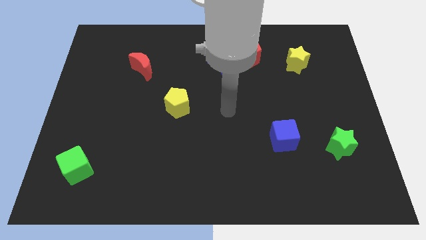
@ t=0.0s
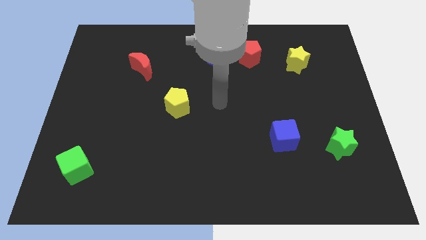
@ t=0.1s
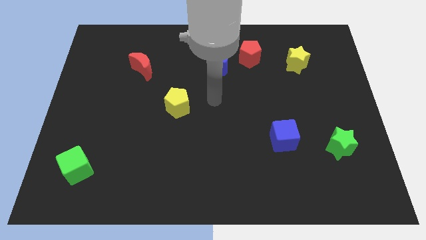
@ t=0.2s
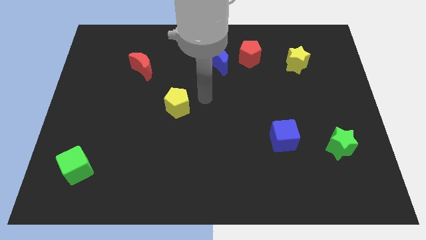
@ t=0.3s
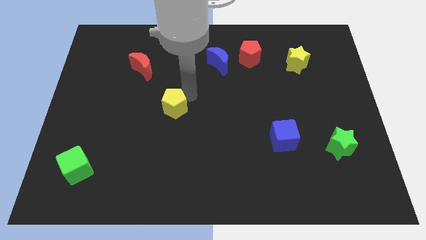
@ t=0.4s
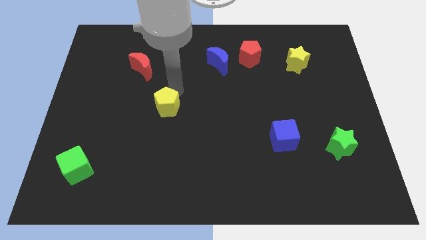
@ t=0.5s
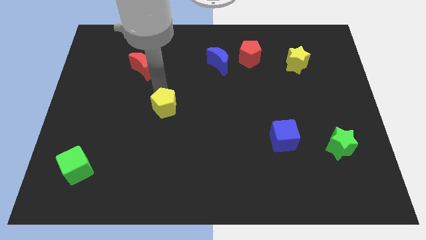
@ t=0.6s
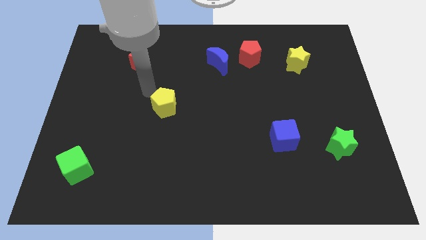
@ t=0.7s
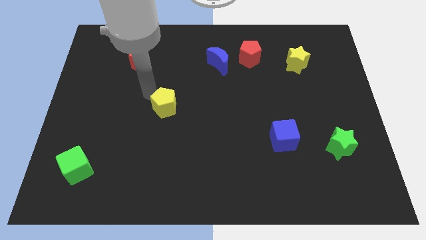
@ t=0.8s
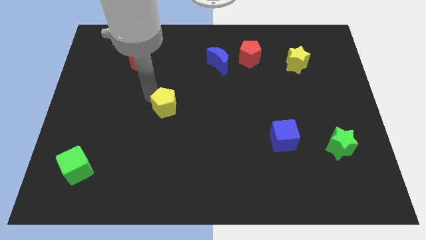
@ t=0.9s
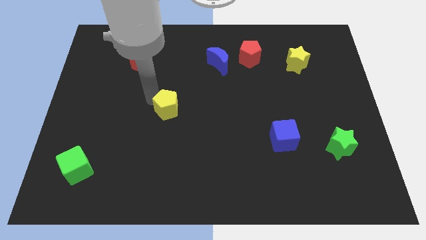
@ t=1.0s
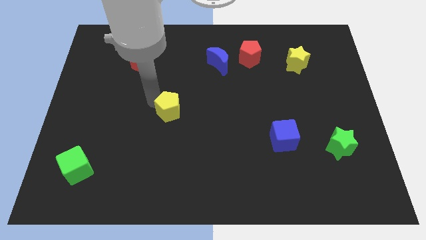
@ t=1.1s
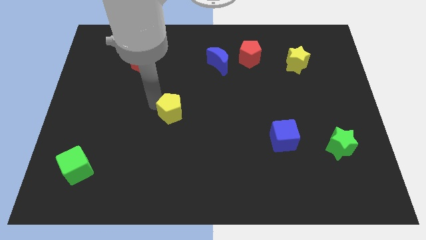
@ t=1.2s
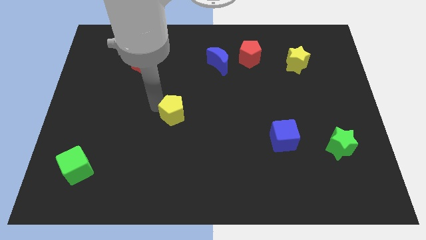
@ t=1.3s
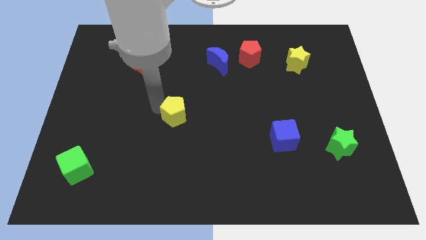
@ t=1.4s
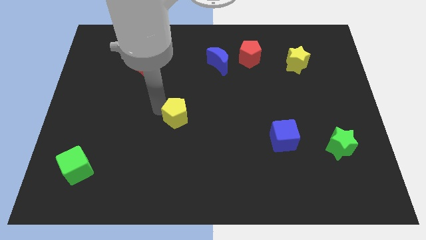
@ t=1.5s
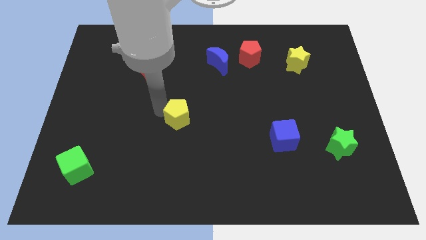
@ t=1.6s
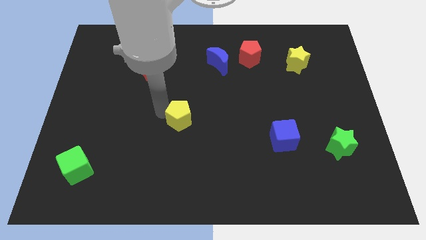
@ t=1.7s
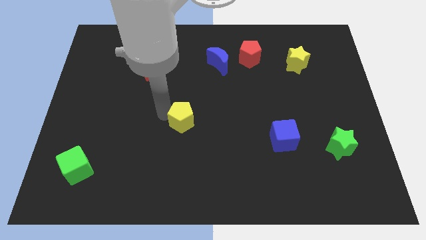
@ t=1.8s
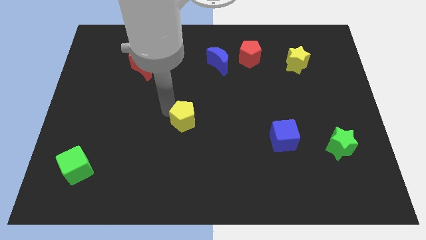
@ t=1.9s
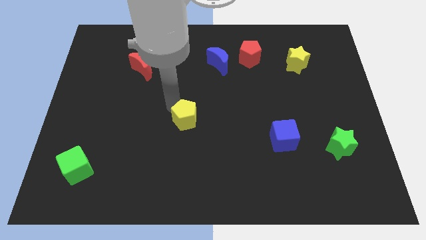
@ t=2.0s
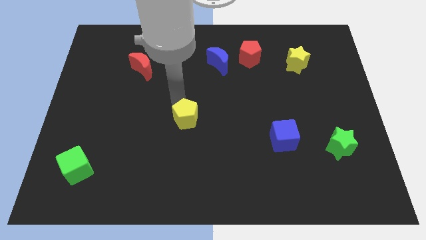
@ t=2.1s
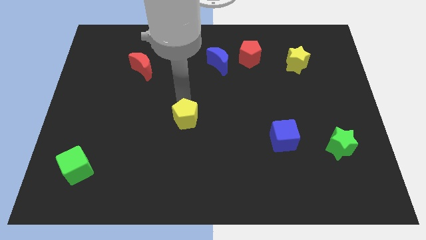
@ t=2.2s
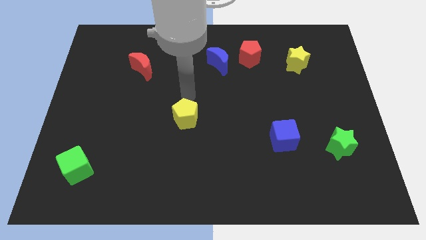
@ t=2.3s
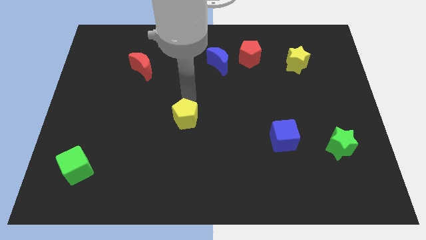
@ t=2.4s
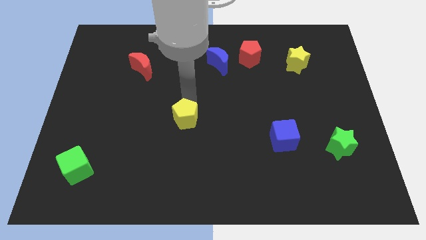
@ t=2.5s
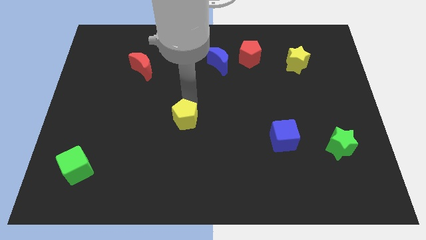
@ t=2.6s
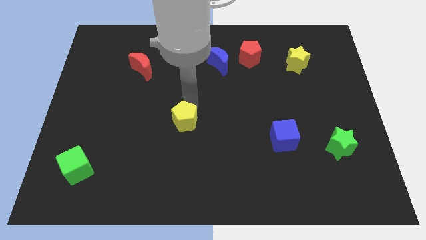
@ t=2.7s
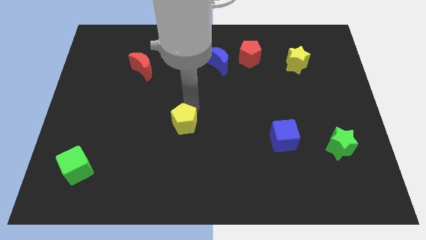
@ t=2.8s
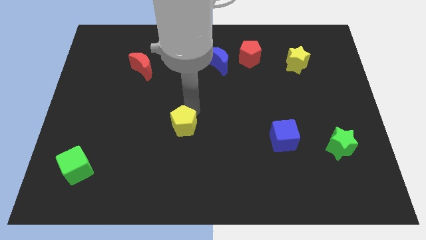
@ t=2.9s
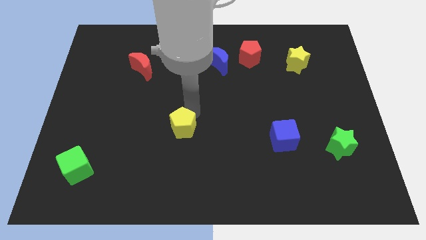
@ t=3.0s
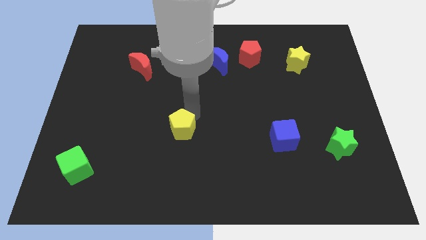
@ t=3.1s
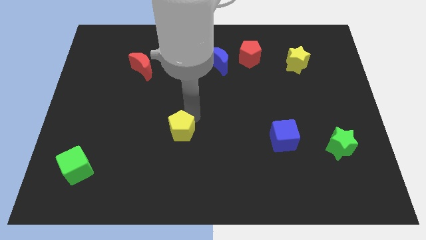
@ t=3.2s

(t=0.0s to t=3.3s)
move the yellow pentagon downwards somewhat

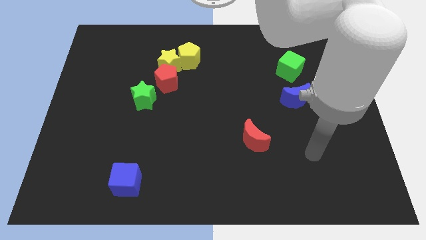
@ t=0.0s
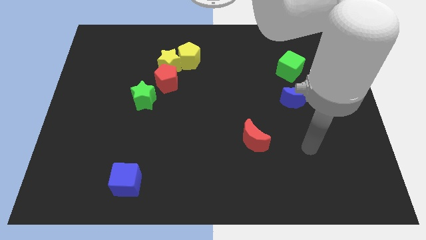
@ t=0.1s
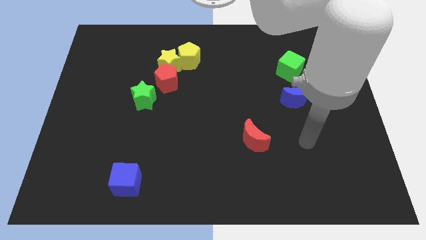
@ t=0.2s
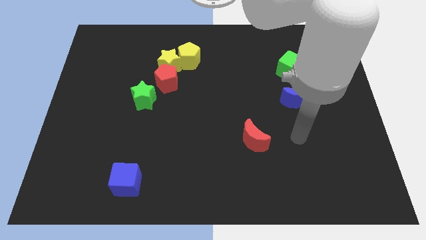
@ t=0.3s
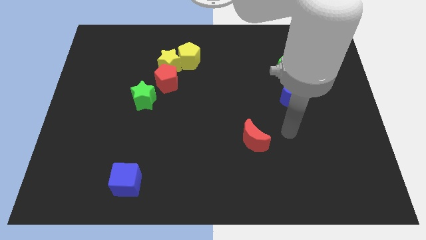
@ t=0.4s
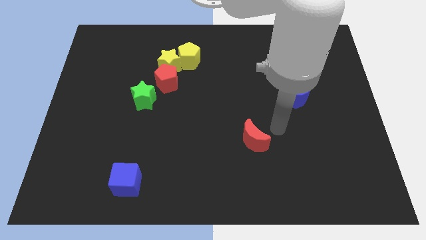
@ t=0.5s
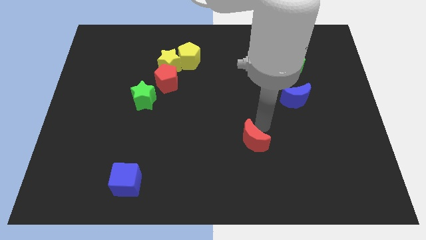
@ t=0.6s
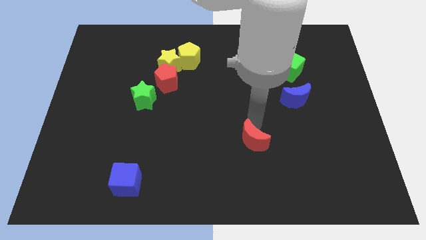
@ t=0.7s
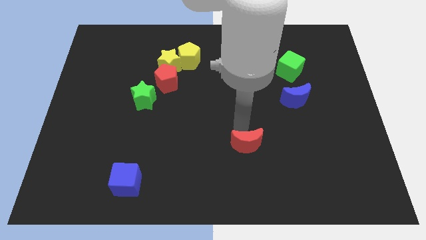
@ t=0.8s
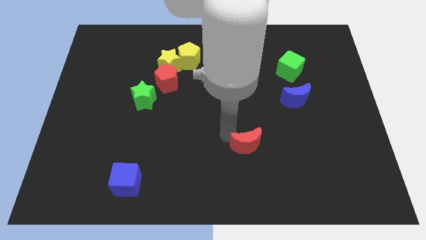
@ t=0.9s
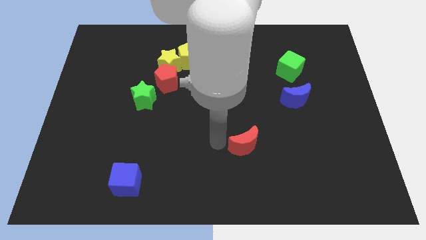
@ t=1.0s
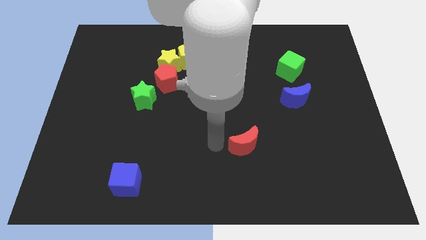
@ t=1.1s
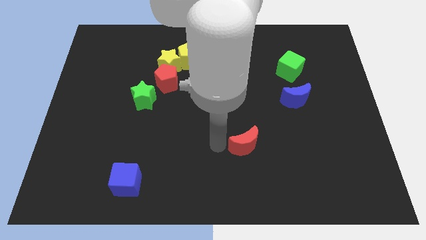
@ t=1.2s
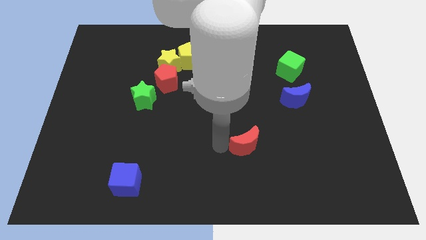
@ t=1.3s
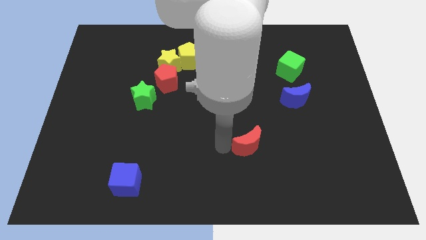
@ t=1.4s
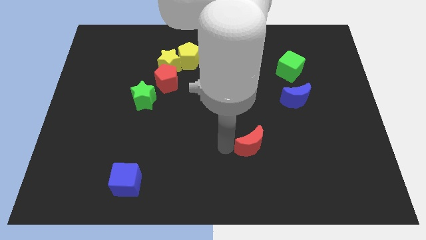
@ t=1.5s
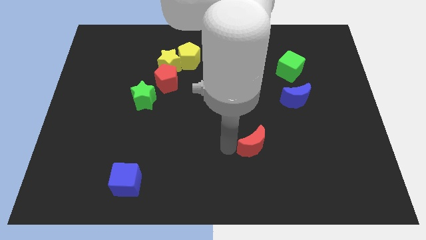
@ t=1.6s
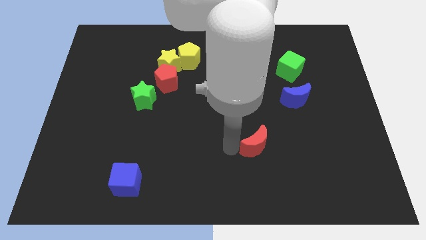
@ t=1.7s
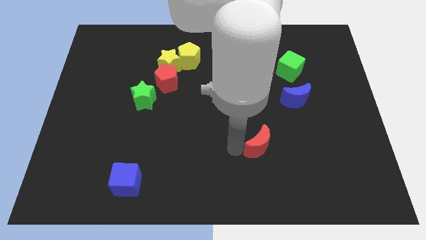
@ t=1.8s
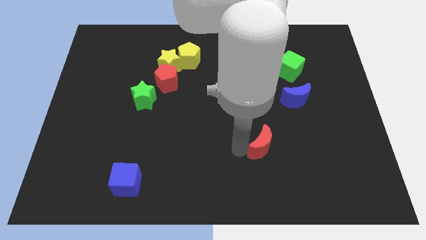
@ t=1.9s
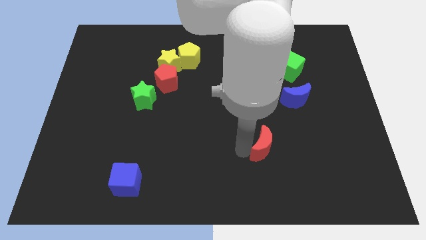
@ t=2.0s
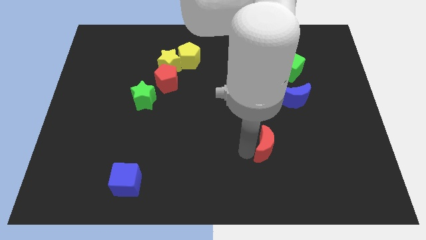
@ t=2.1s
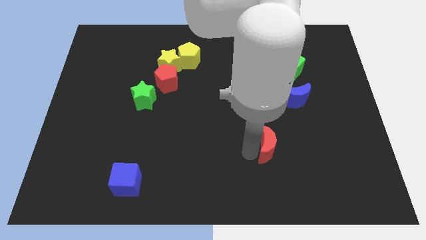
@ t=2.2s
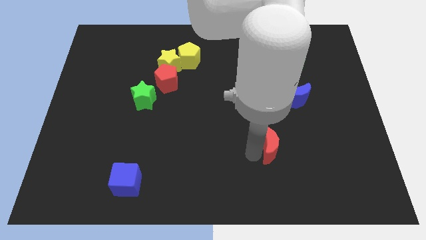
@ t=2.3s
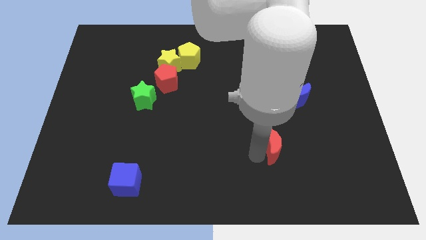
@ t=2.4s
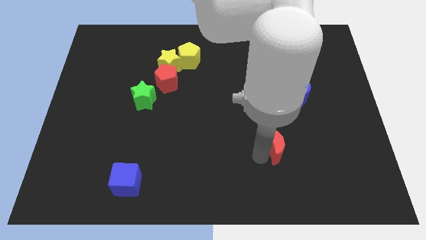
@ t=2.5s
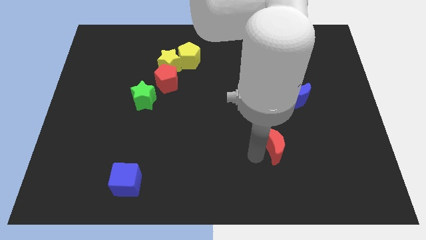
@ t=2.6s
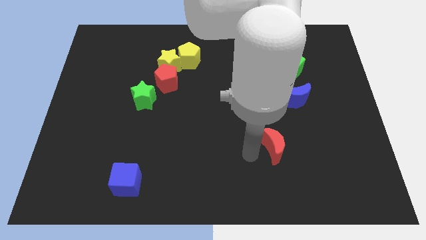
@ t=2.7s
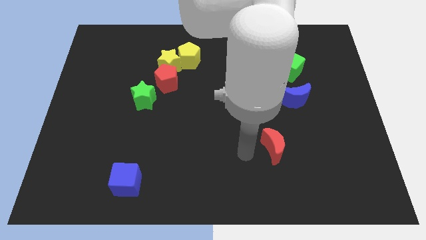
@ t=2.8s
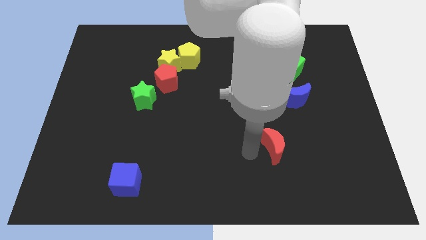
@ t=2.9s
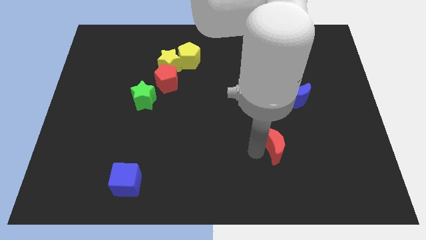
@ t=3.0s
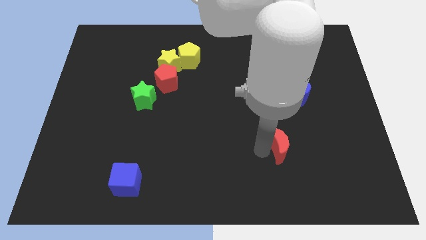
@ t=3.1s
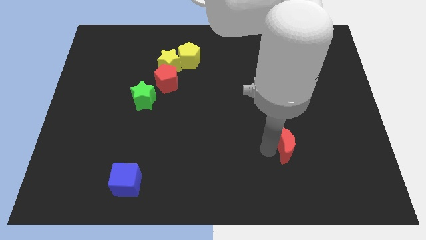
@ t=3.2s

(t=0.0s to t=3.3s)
slide the red moon a little to the right

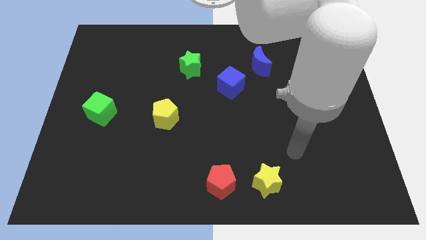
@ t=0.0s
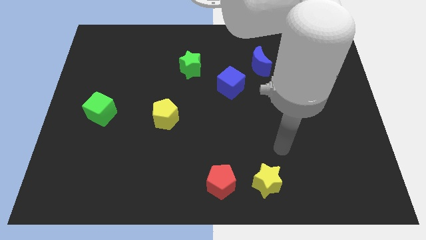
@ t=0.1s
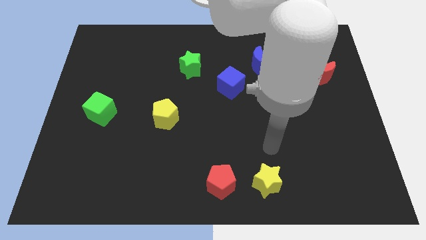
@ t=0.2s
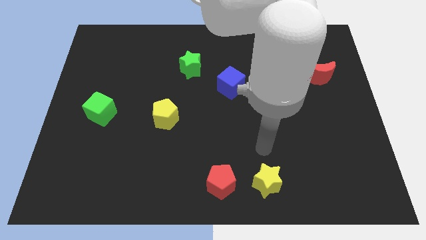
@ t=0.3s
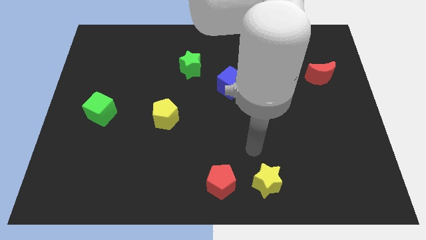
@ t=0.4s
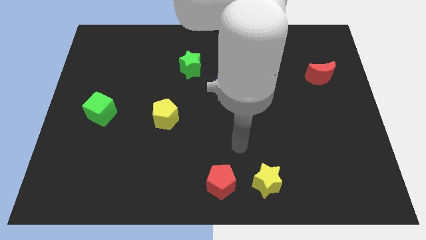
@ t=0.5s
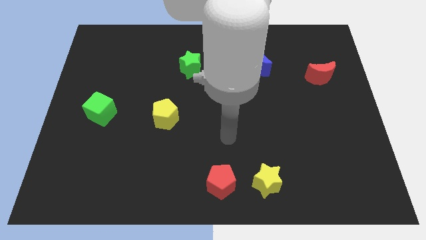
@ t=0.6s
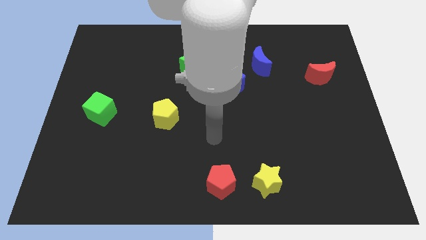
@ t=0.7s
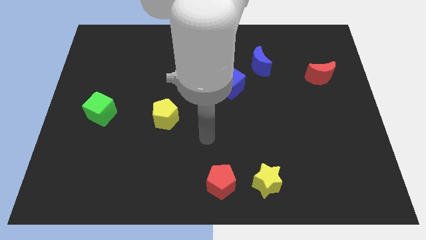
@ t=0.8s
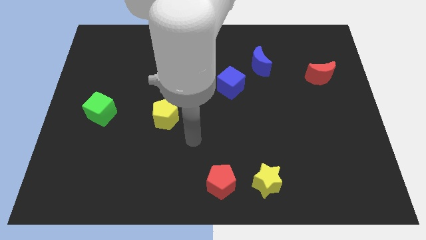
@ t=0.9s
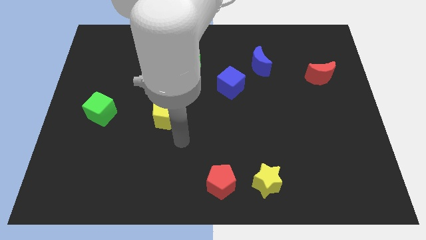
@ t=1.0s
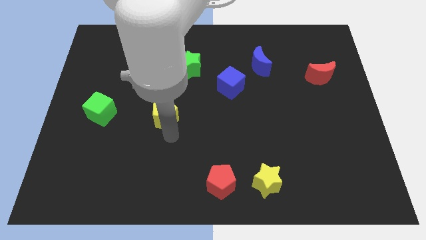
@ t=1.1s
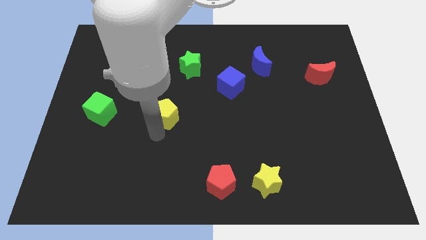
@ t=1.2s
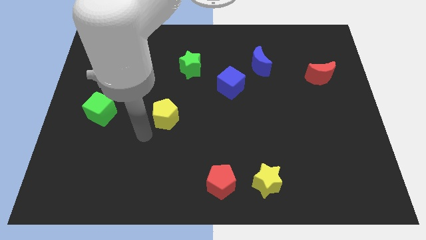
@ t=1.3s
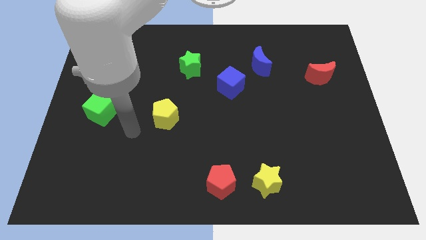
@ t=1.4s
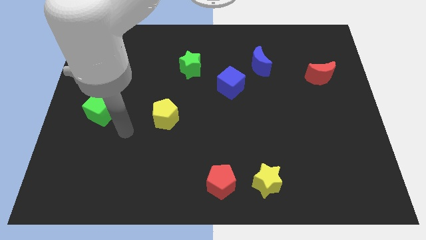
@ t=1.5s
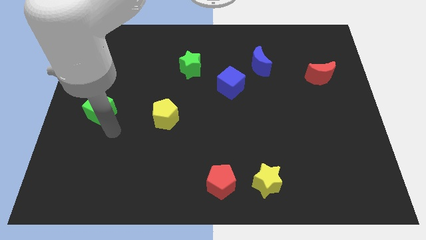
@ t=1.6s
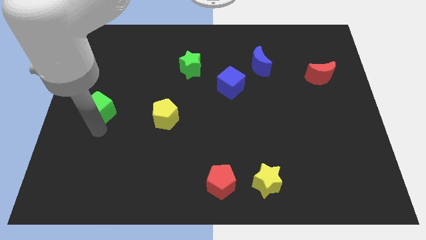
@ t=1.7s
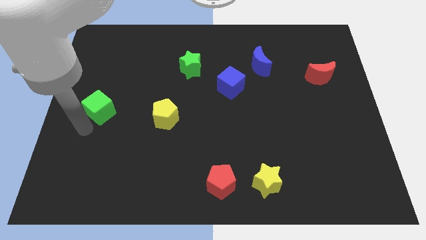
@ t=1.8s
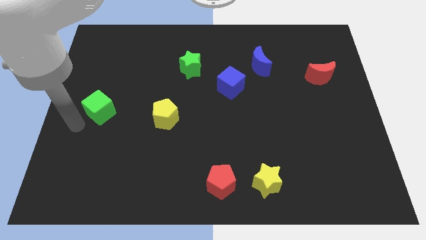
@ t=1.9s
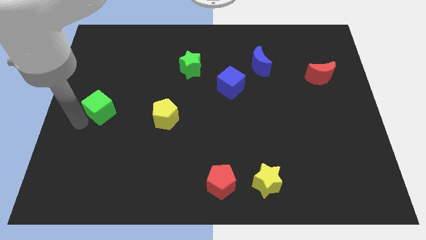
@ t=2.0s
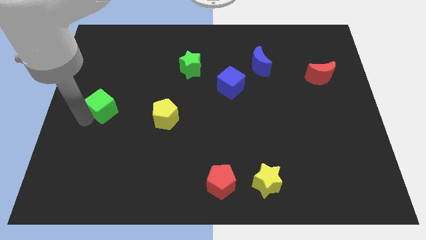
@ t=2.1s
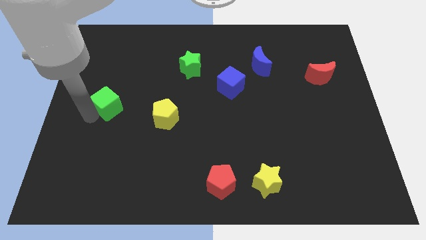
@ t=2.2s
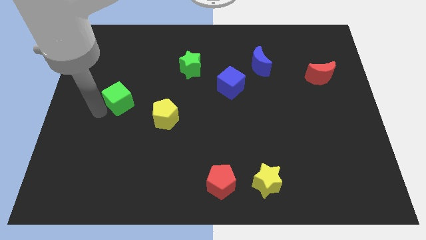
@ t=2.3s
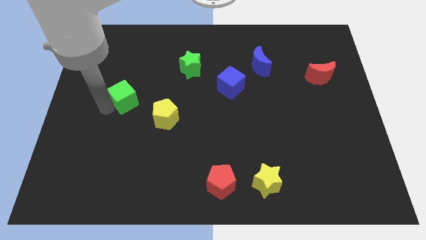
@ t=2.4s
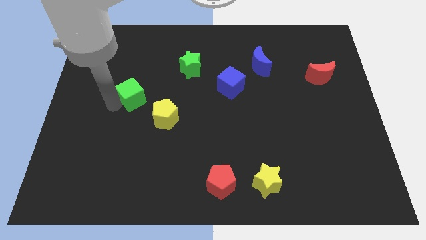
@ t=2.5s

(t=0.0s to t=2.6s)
push the green cube a little up and right diagonally
